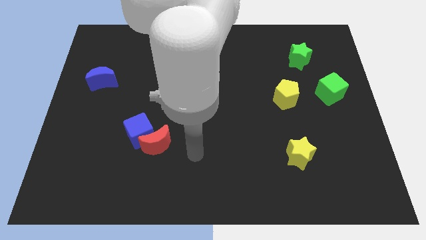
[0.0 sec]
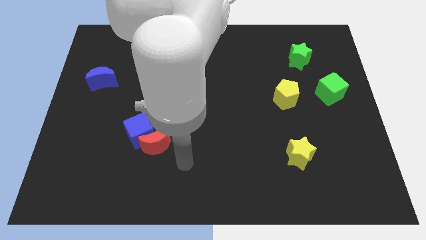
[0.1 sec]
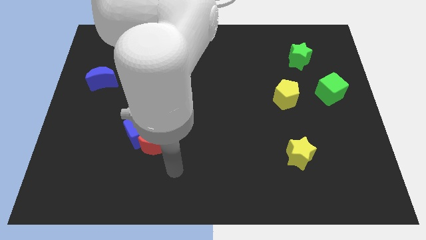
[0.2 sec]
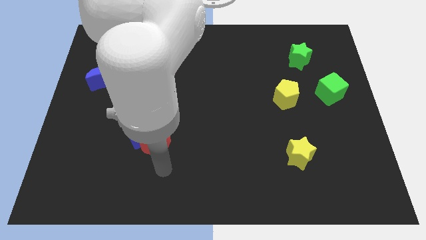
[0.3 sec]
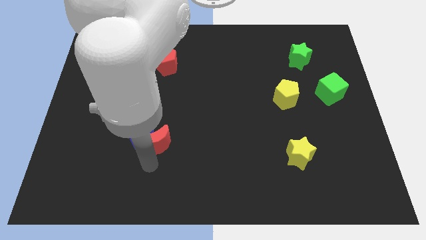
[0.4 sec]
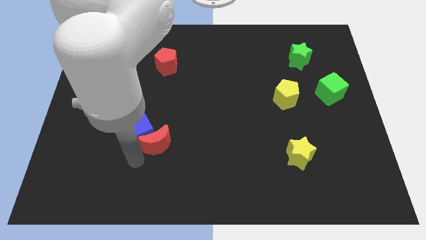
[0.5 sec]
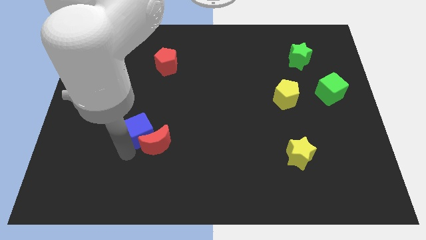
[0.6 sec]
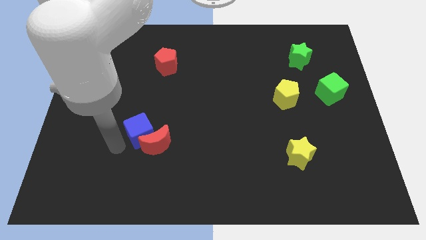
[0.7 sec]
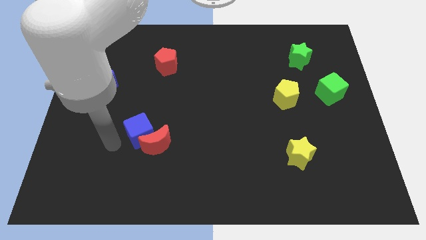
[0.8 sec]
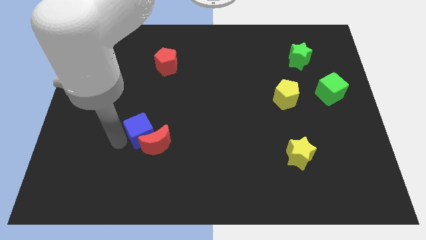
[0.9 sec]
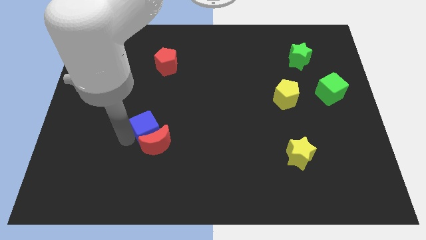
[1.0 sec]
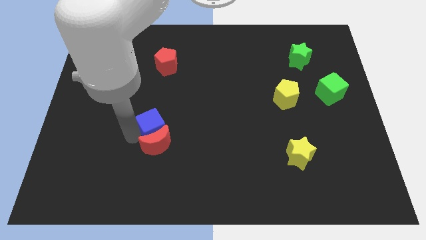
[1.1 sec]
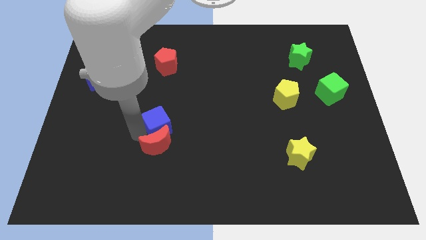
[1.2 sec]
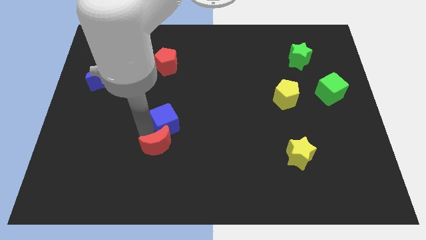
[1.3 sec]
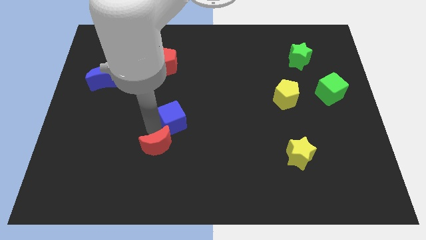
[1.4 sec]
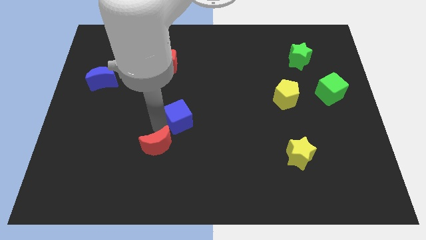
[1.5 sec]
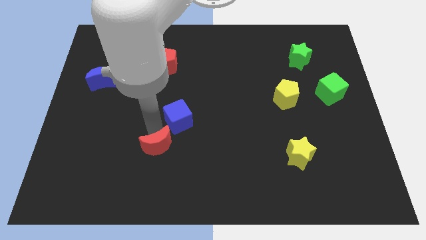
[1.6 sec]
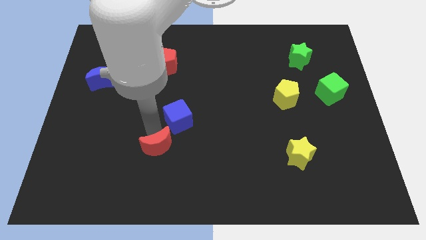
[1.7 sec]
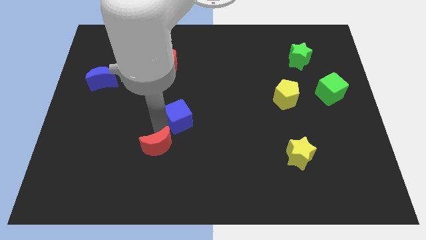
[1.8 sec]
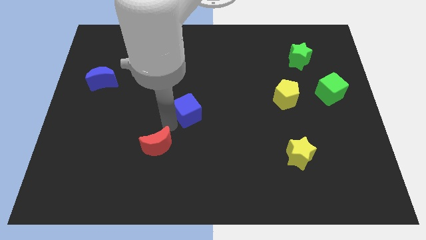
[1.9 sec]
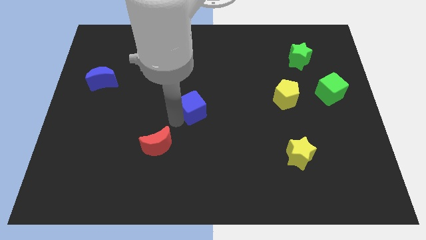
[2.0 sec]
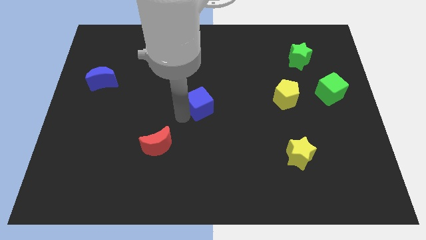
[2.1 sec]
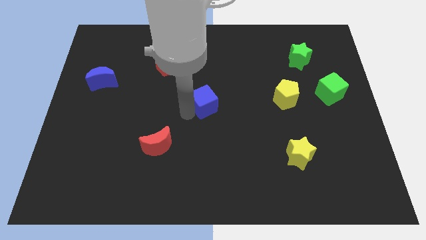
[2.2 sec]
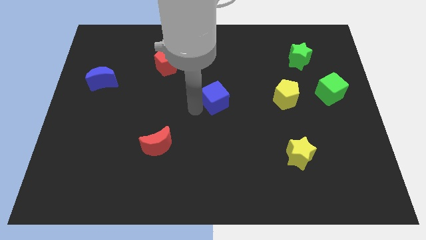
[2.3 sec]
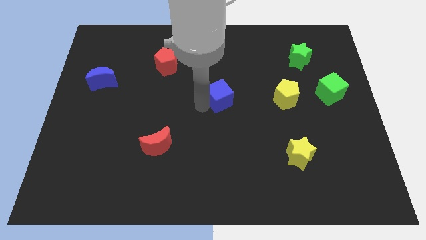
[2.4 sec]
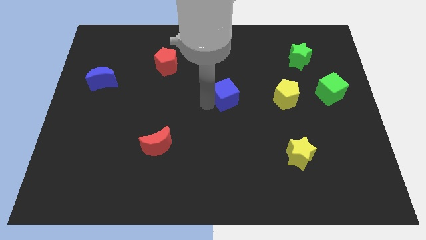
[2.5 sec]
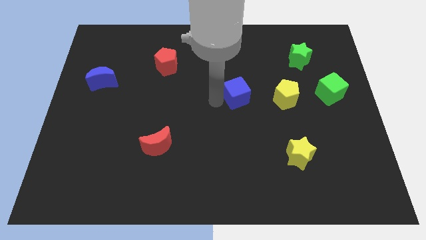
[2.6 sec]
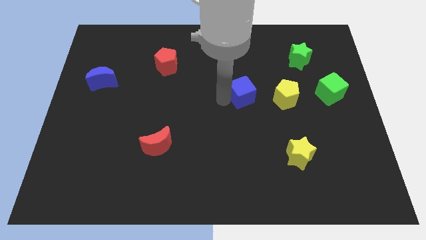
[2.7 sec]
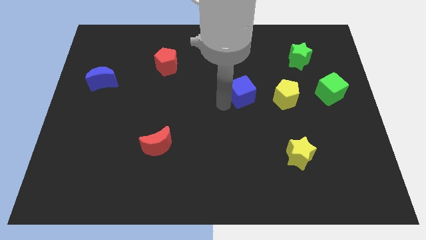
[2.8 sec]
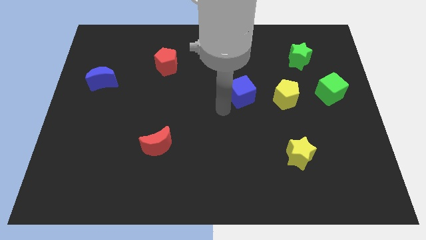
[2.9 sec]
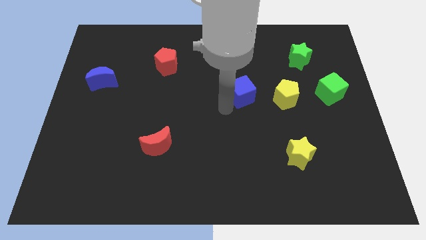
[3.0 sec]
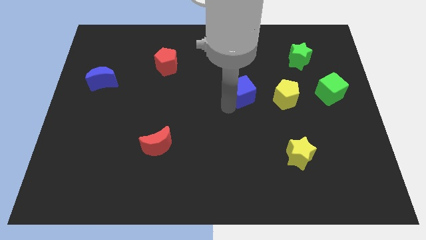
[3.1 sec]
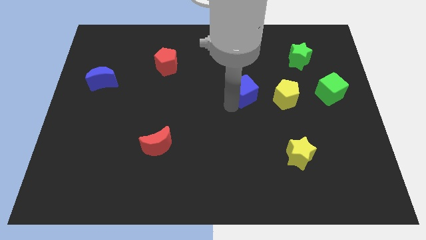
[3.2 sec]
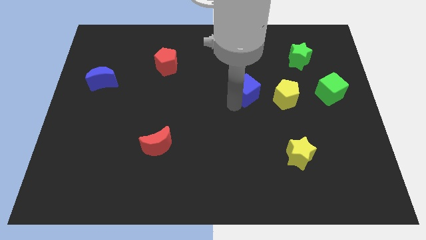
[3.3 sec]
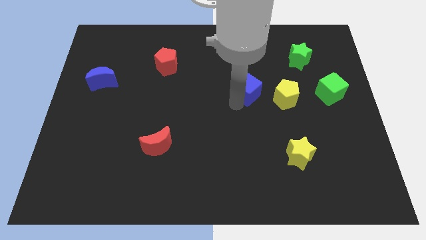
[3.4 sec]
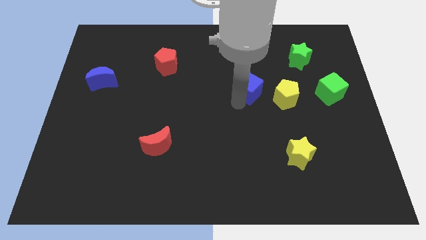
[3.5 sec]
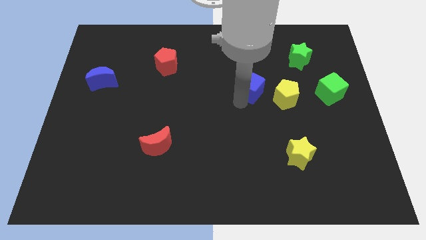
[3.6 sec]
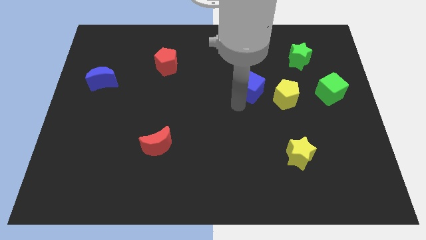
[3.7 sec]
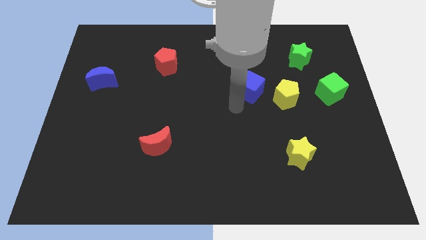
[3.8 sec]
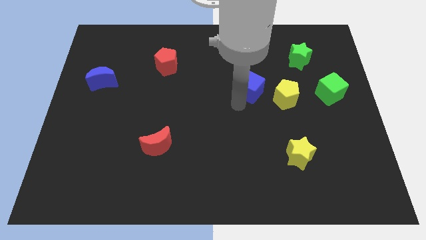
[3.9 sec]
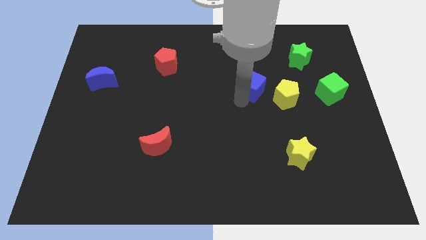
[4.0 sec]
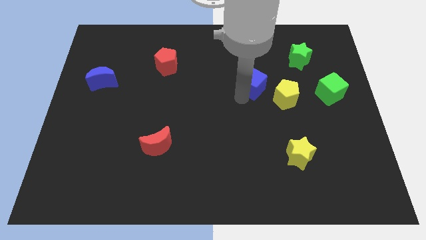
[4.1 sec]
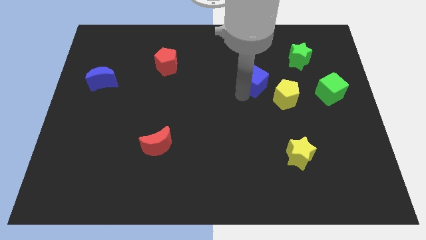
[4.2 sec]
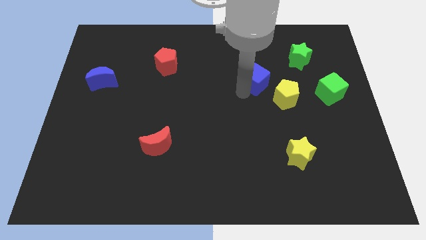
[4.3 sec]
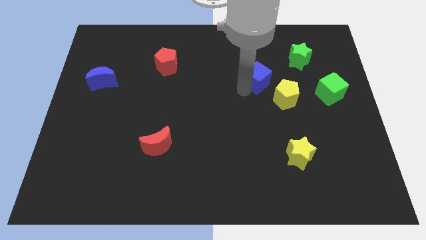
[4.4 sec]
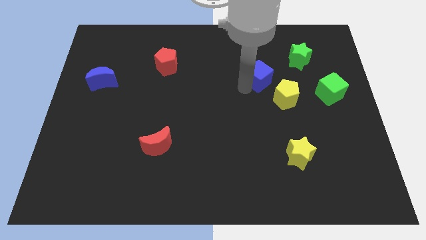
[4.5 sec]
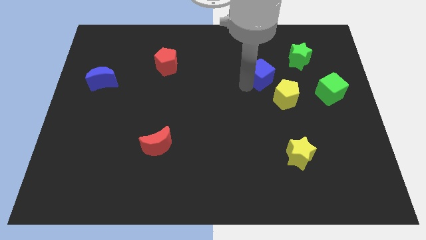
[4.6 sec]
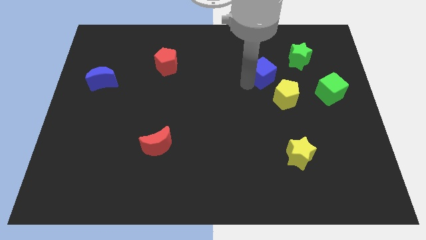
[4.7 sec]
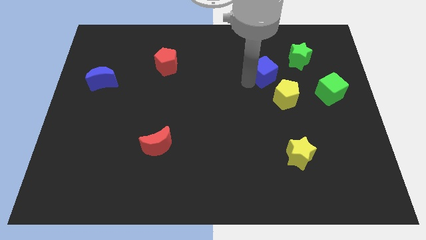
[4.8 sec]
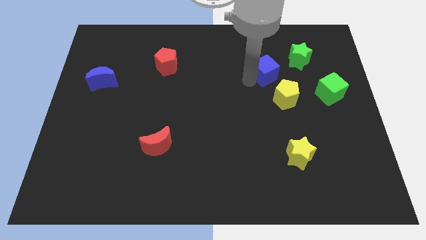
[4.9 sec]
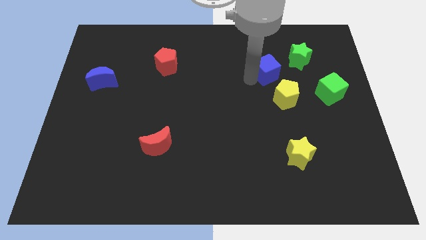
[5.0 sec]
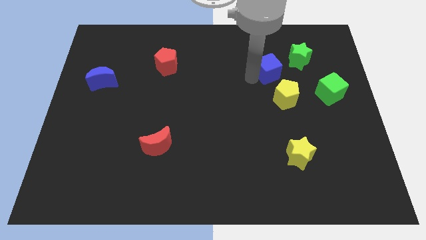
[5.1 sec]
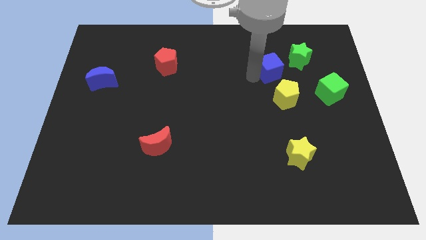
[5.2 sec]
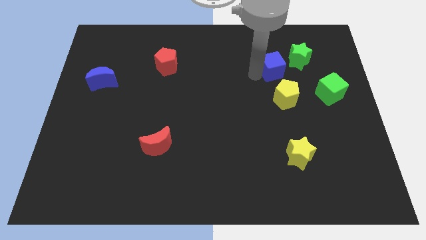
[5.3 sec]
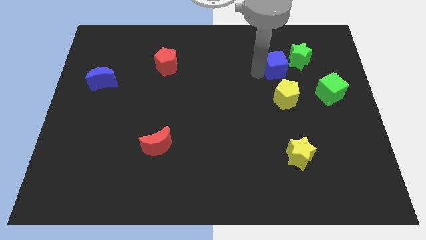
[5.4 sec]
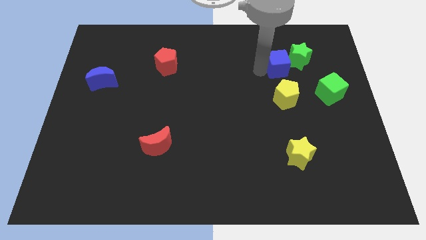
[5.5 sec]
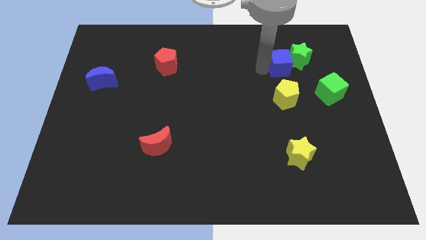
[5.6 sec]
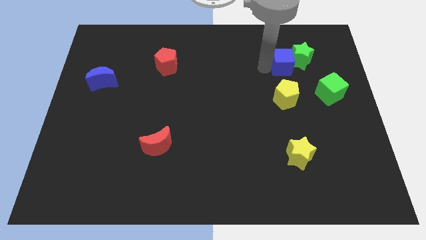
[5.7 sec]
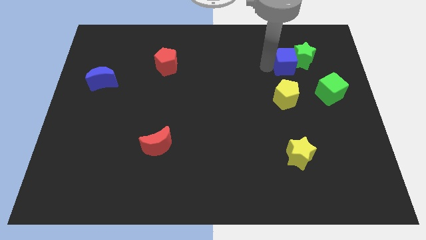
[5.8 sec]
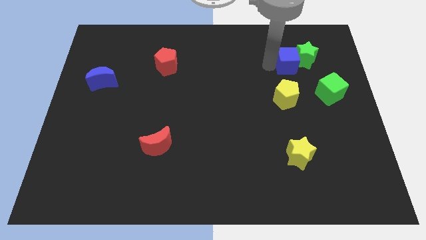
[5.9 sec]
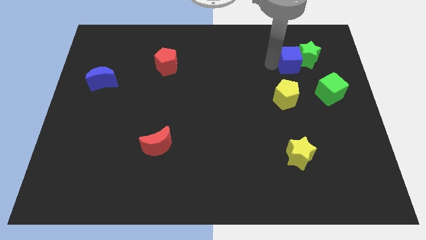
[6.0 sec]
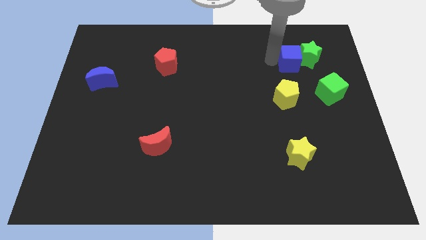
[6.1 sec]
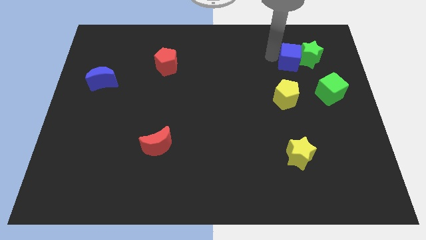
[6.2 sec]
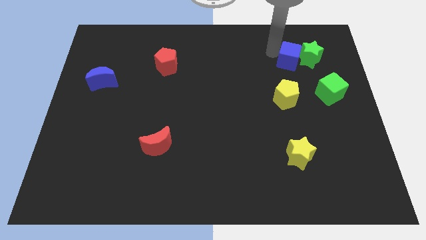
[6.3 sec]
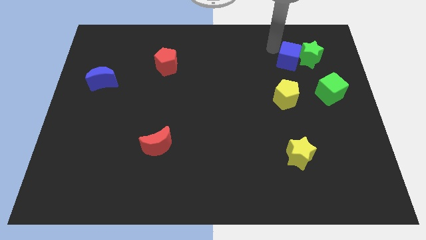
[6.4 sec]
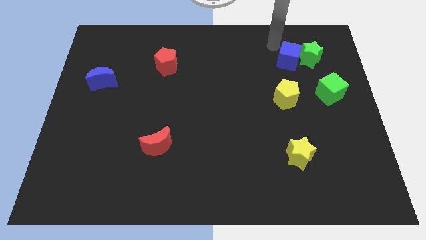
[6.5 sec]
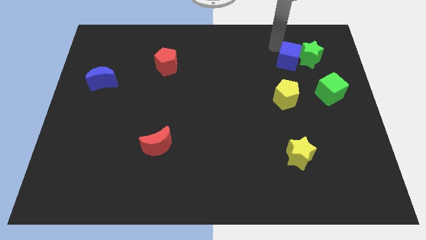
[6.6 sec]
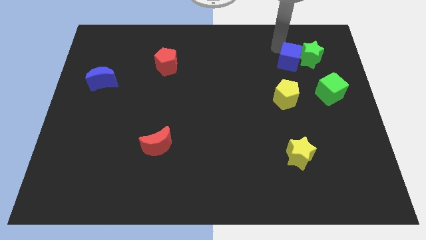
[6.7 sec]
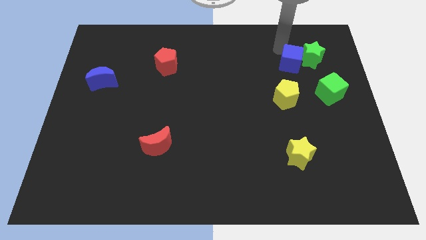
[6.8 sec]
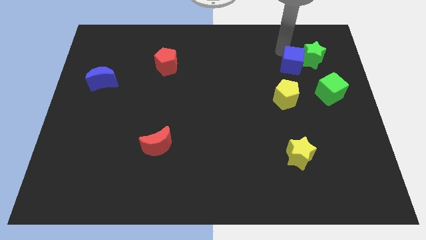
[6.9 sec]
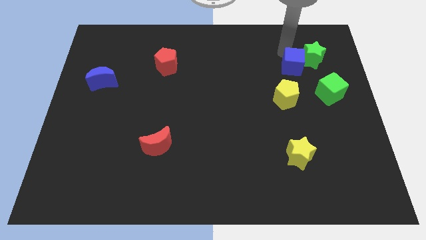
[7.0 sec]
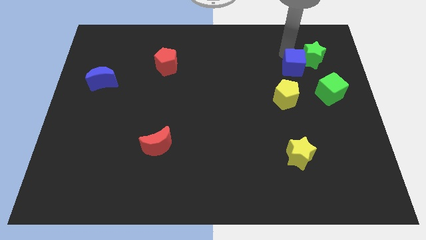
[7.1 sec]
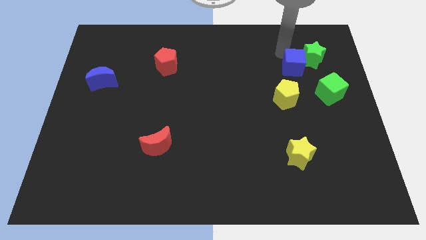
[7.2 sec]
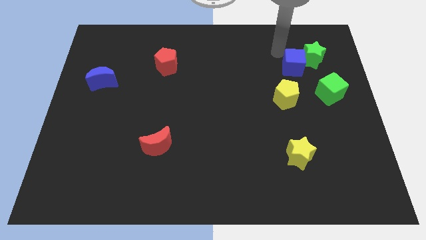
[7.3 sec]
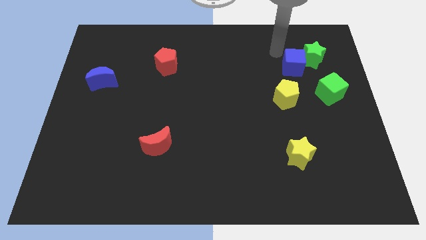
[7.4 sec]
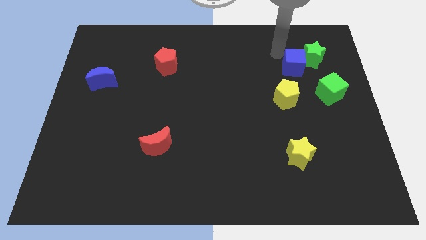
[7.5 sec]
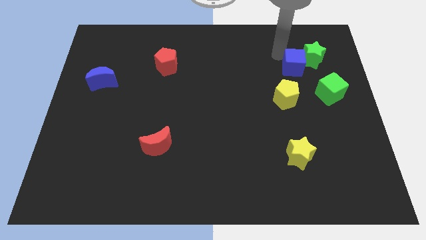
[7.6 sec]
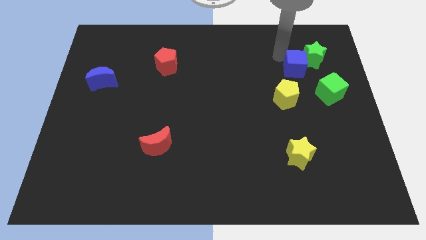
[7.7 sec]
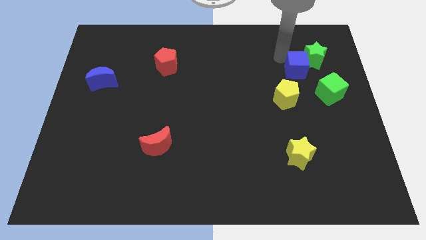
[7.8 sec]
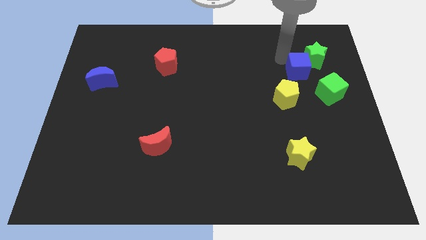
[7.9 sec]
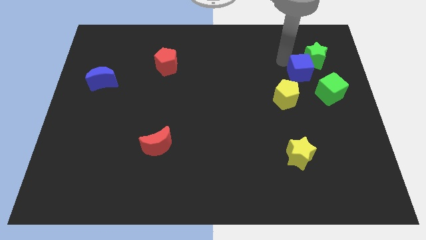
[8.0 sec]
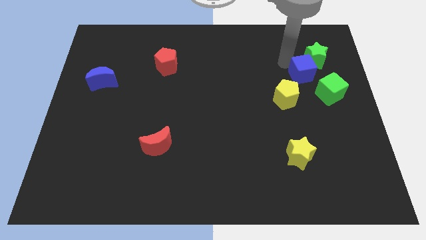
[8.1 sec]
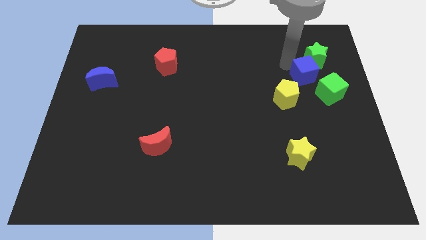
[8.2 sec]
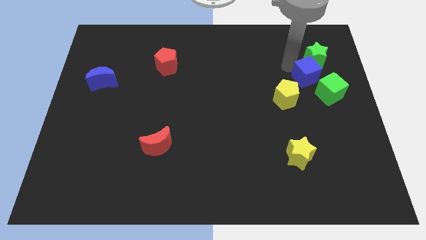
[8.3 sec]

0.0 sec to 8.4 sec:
move the blue cube to the top of the green cube
